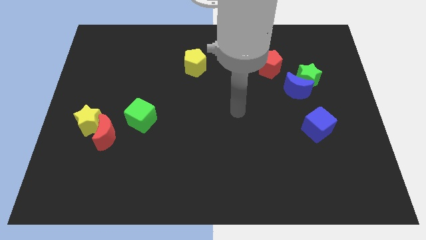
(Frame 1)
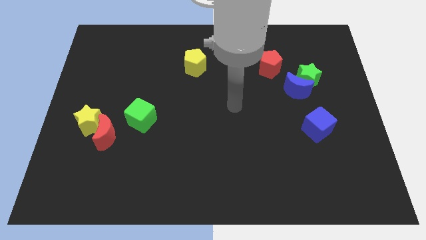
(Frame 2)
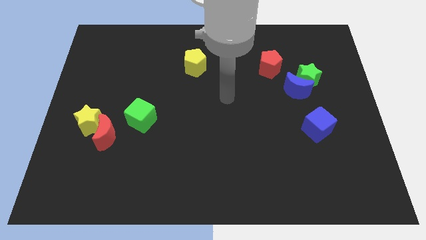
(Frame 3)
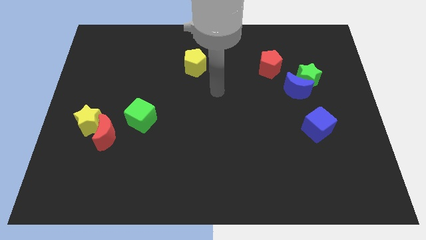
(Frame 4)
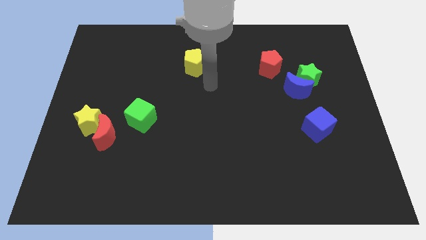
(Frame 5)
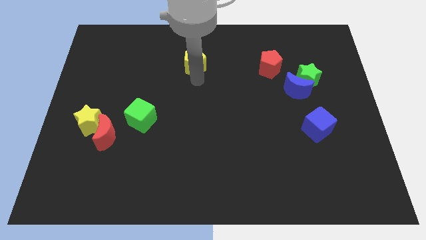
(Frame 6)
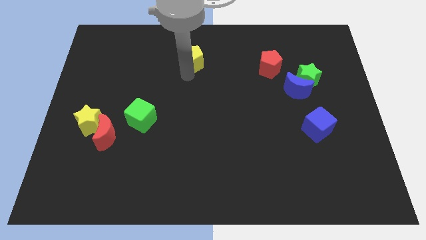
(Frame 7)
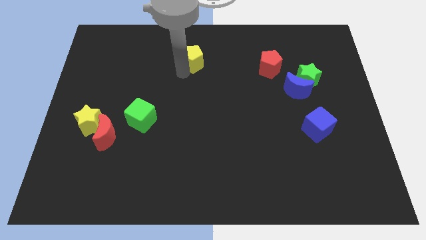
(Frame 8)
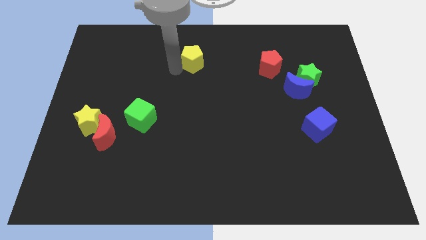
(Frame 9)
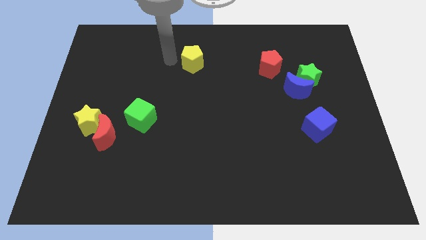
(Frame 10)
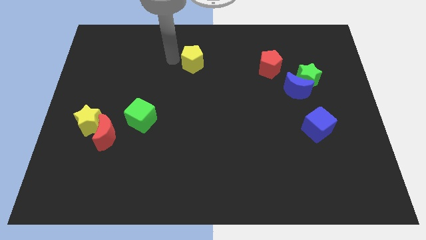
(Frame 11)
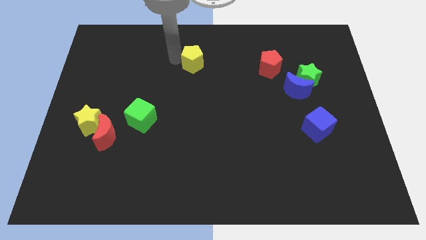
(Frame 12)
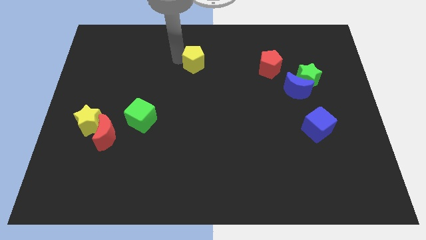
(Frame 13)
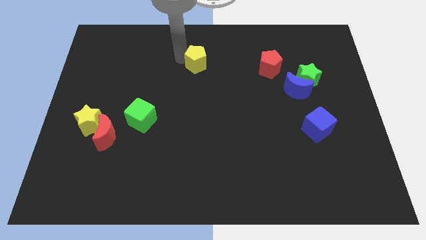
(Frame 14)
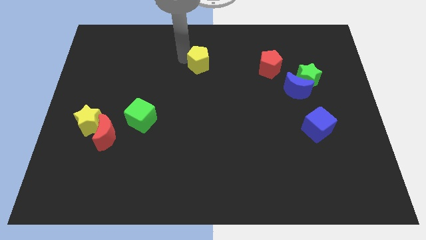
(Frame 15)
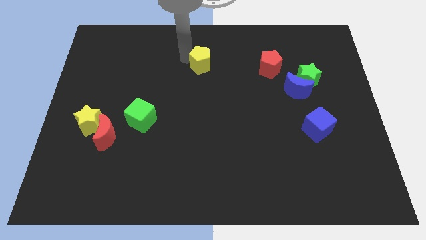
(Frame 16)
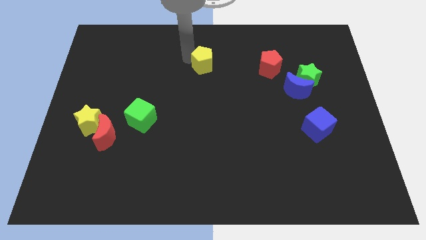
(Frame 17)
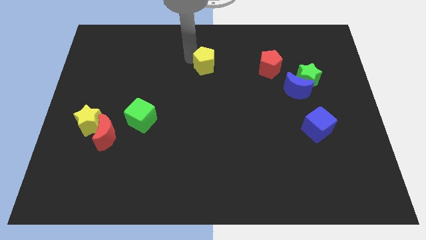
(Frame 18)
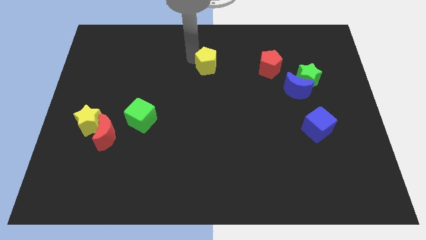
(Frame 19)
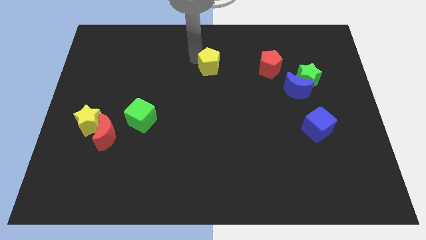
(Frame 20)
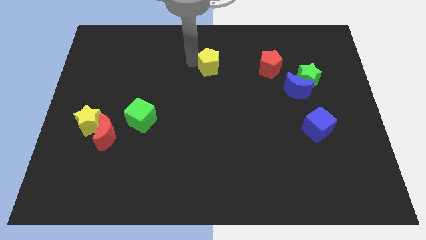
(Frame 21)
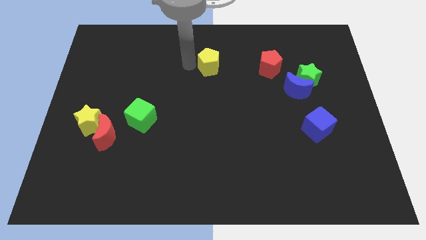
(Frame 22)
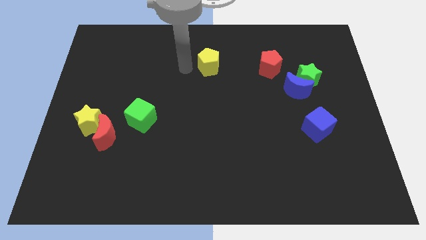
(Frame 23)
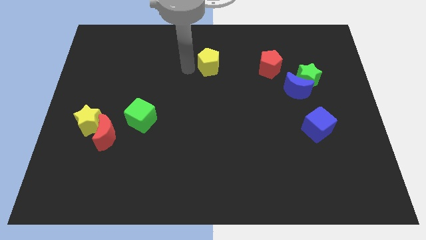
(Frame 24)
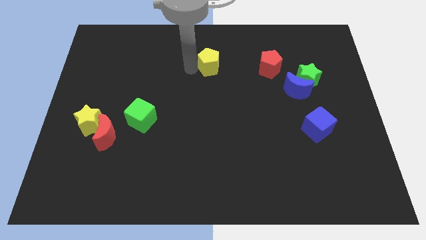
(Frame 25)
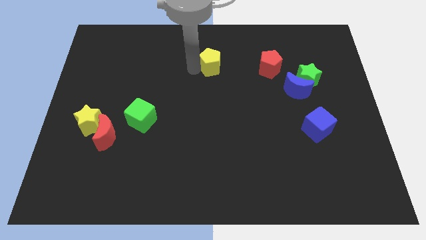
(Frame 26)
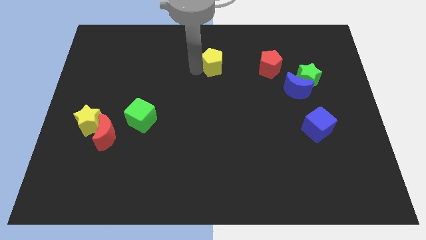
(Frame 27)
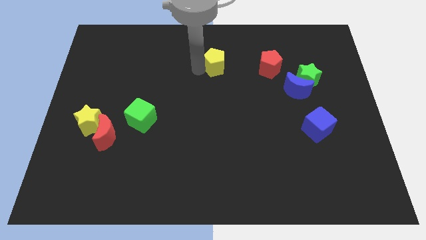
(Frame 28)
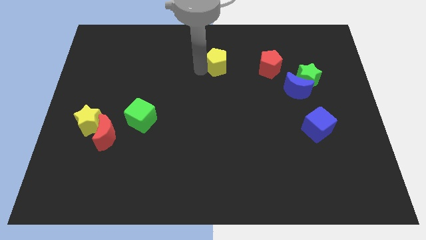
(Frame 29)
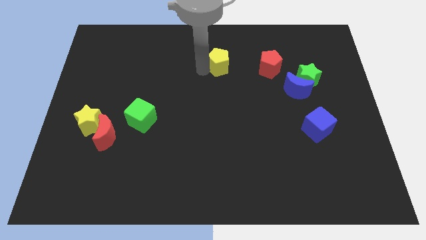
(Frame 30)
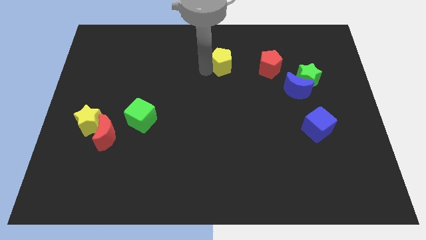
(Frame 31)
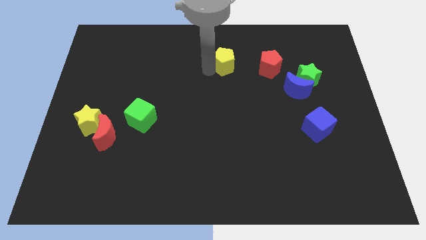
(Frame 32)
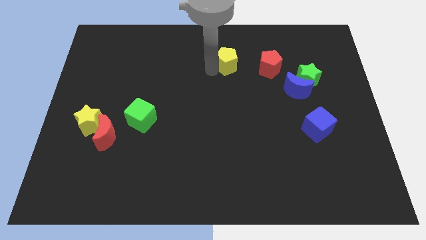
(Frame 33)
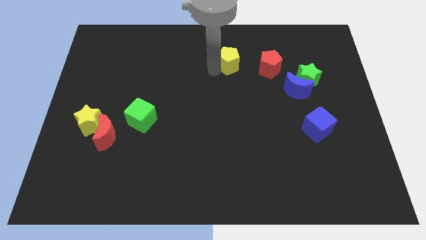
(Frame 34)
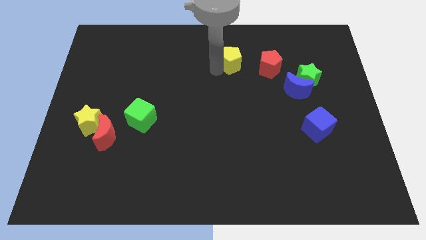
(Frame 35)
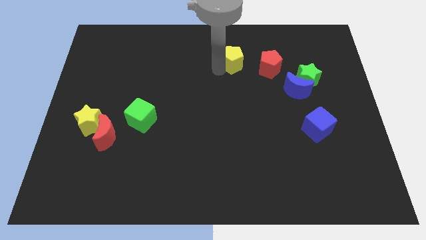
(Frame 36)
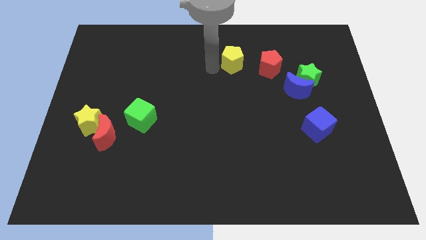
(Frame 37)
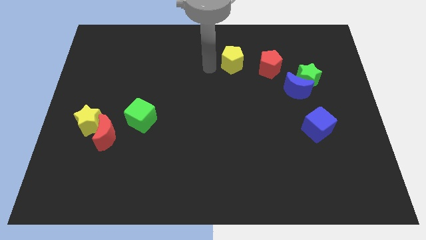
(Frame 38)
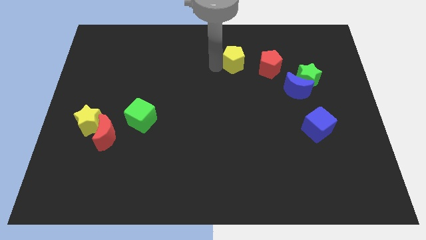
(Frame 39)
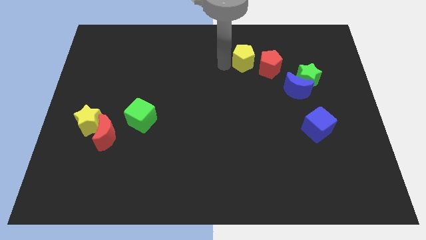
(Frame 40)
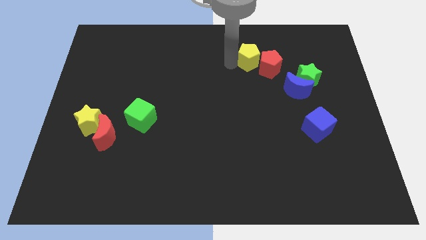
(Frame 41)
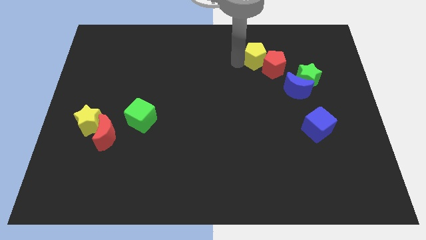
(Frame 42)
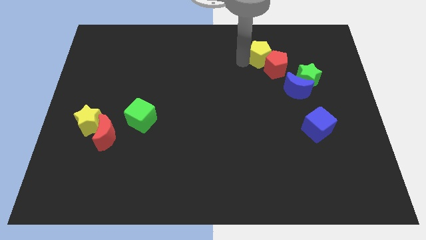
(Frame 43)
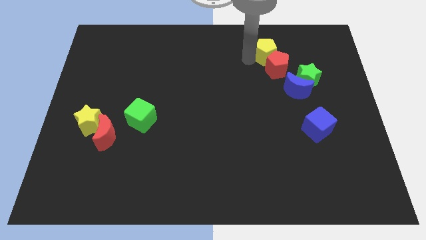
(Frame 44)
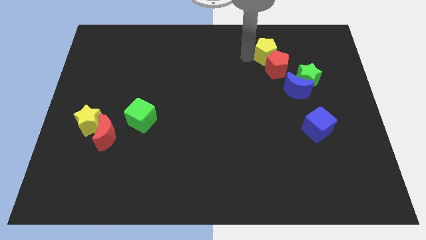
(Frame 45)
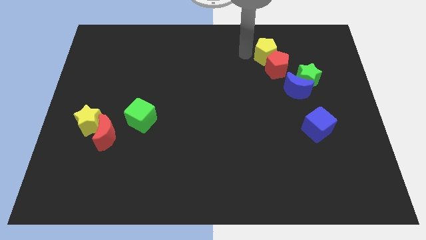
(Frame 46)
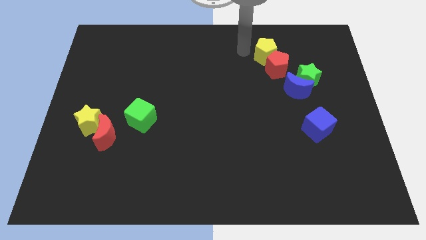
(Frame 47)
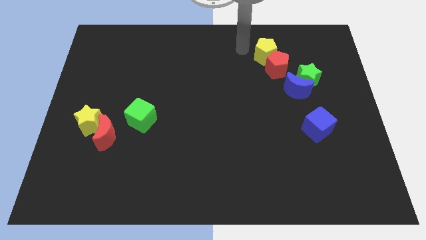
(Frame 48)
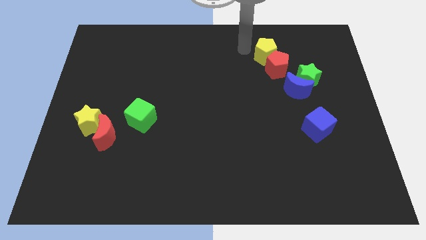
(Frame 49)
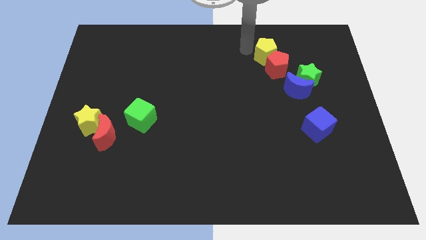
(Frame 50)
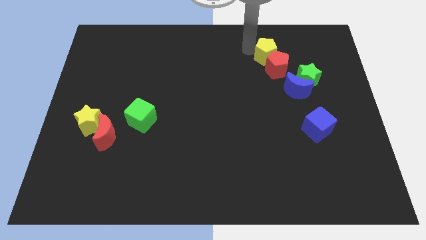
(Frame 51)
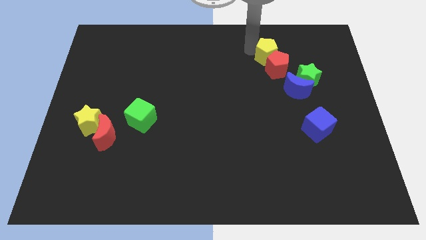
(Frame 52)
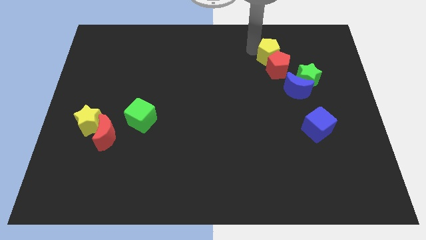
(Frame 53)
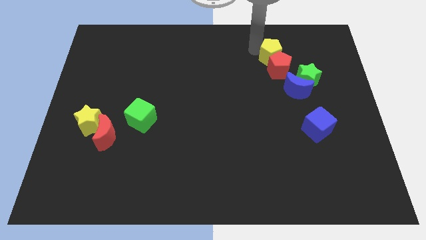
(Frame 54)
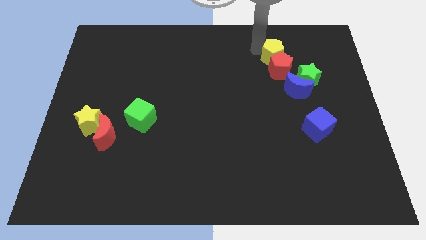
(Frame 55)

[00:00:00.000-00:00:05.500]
push the yellow pentagon right

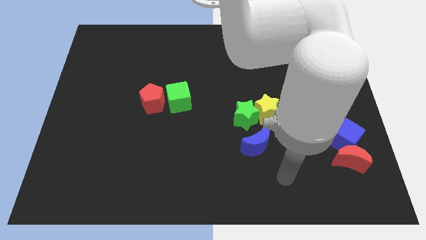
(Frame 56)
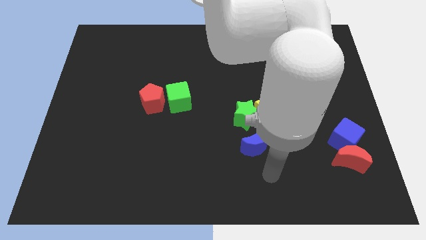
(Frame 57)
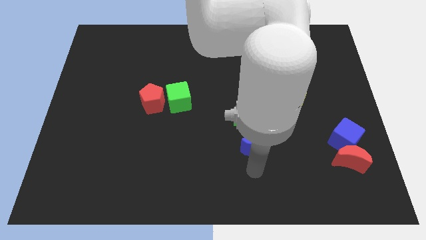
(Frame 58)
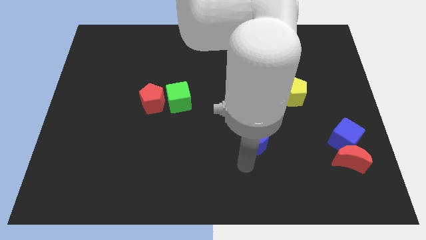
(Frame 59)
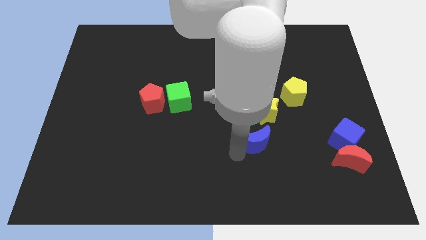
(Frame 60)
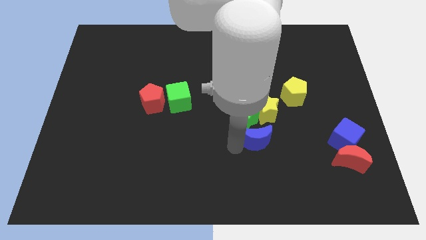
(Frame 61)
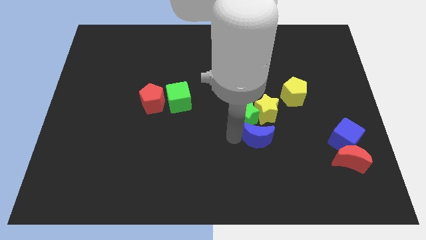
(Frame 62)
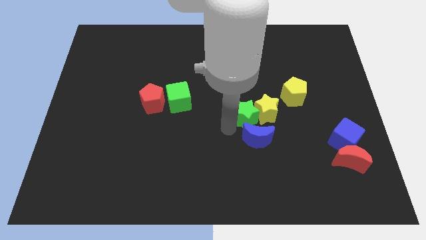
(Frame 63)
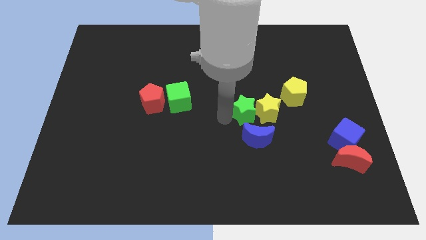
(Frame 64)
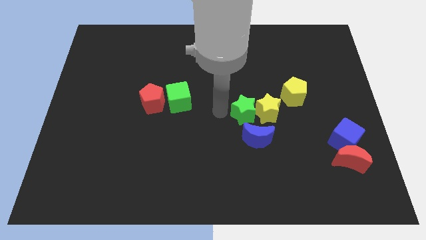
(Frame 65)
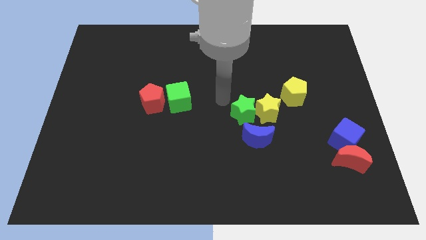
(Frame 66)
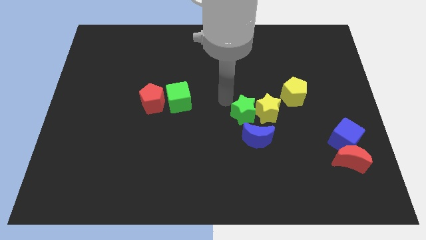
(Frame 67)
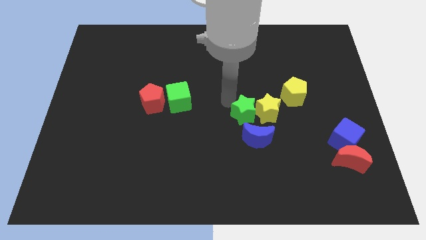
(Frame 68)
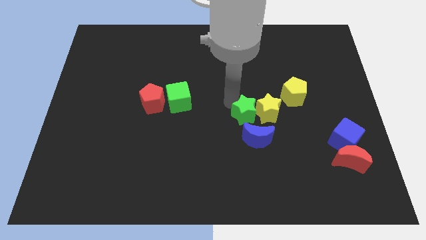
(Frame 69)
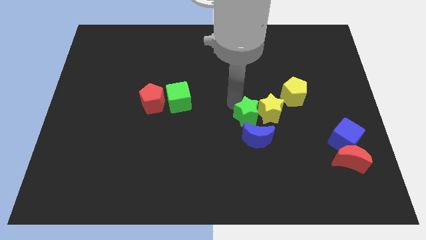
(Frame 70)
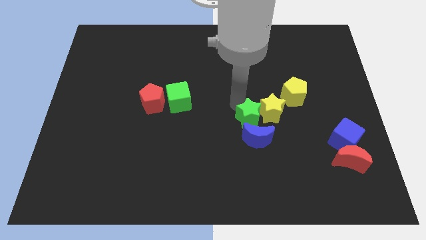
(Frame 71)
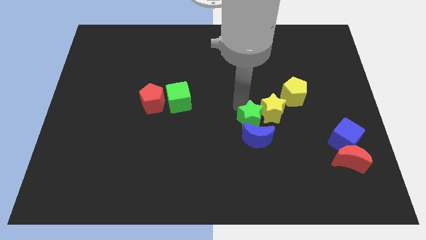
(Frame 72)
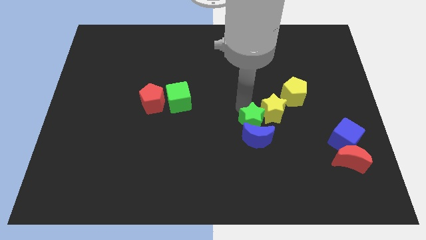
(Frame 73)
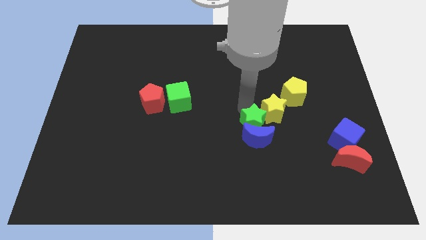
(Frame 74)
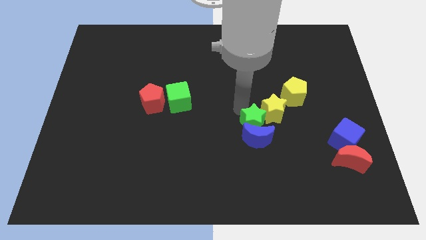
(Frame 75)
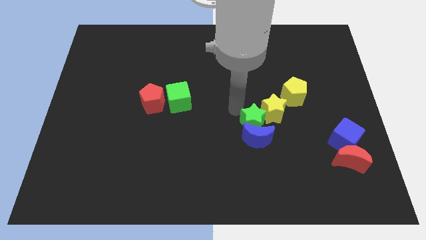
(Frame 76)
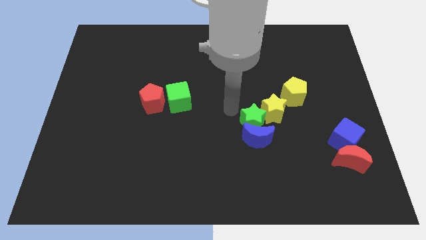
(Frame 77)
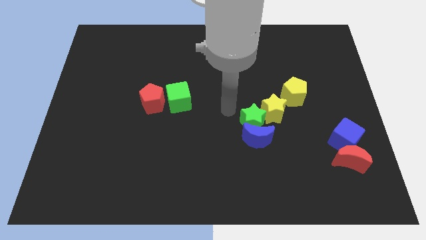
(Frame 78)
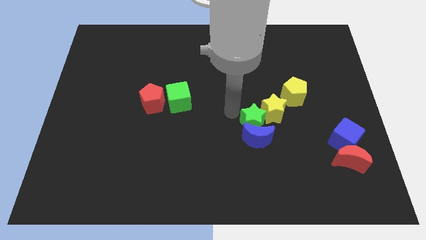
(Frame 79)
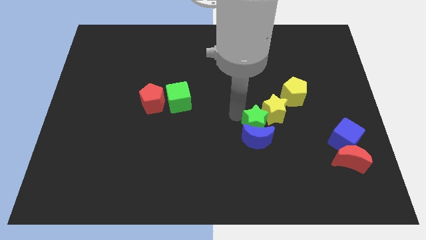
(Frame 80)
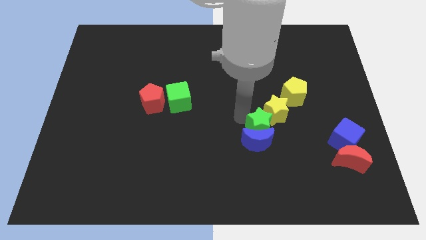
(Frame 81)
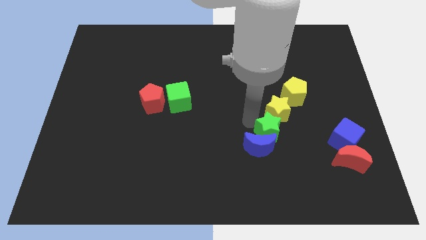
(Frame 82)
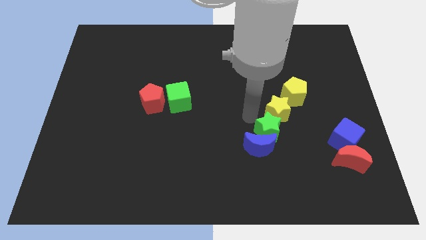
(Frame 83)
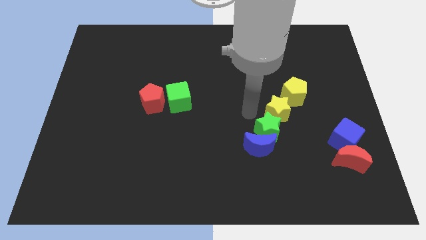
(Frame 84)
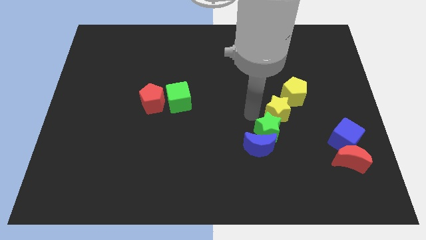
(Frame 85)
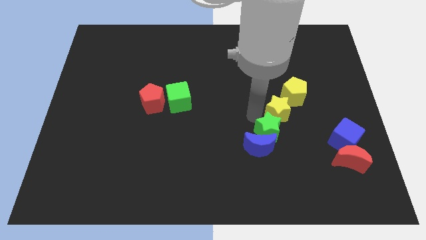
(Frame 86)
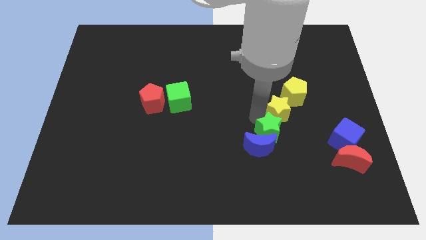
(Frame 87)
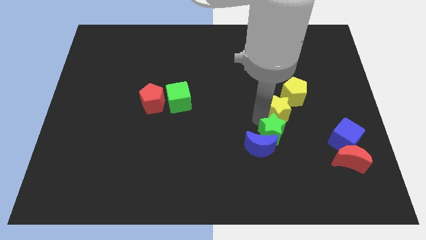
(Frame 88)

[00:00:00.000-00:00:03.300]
move the green star a little bit downwards and right
